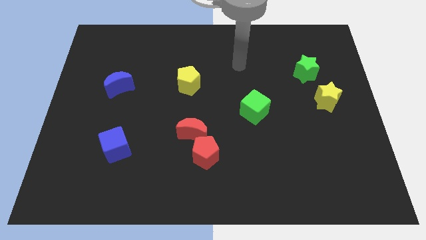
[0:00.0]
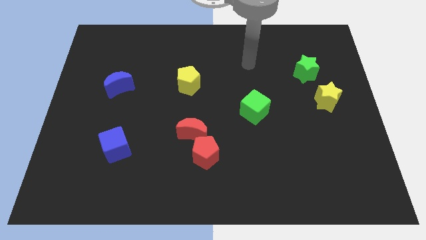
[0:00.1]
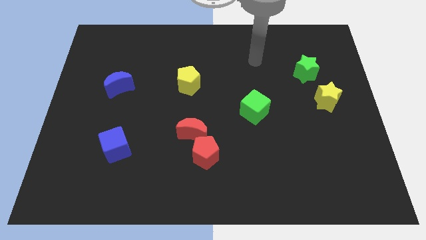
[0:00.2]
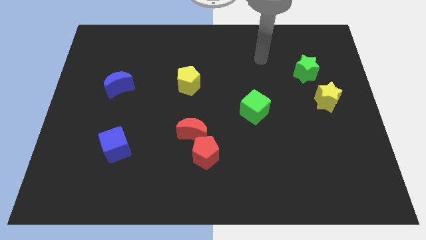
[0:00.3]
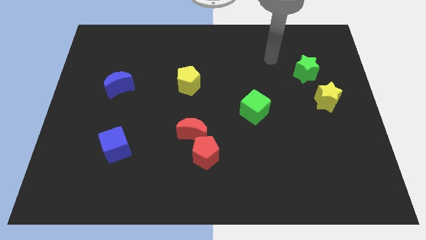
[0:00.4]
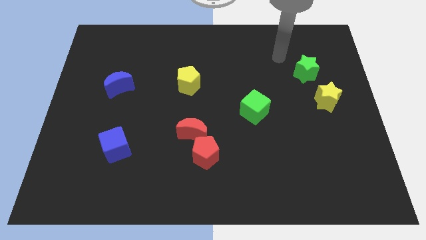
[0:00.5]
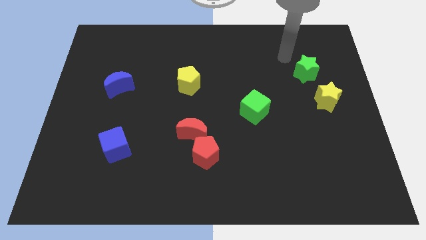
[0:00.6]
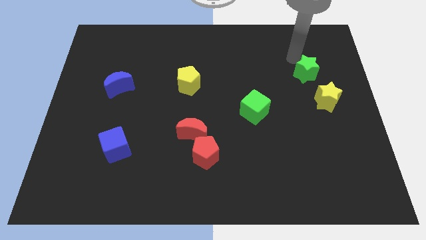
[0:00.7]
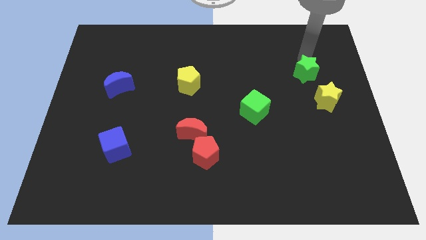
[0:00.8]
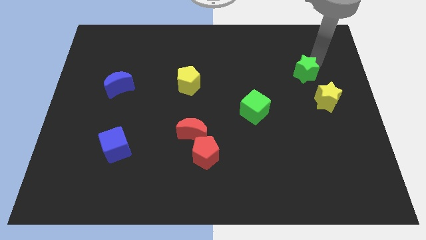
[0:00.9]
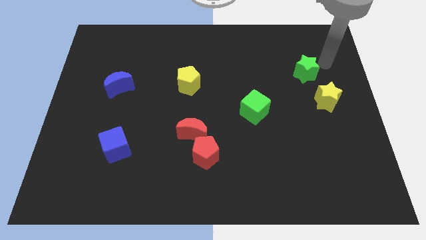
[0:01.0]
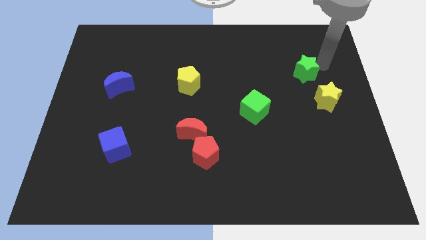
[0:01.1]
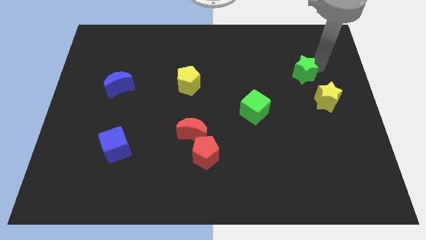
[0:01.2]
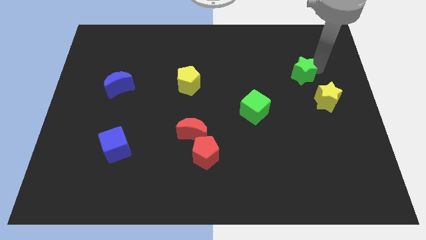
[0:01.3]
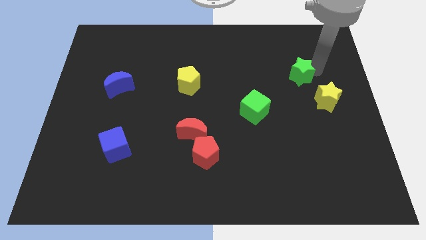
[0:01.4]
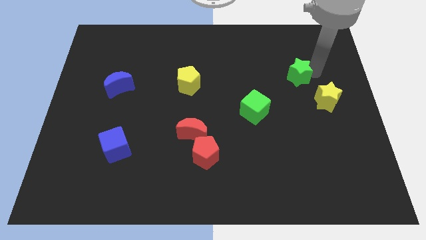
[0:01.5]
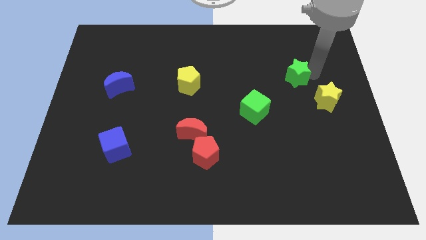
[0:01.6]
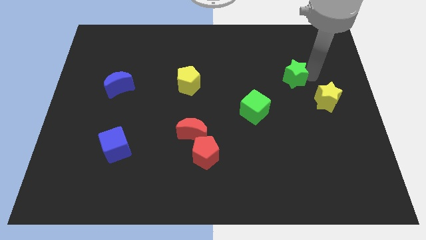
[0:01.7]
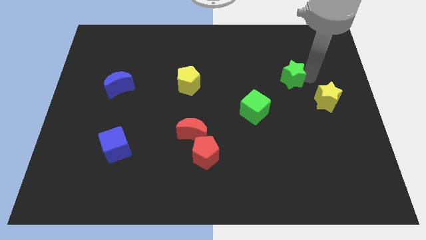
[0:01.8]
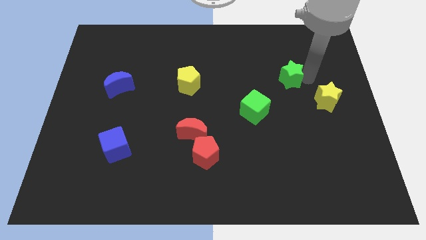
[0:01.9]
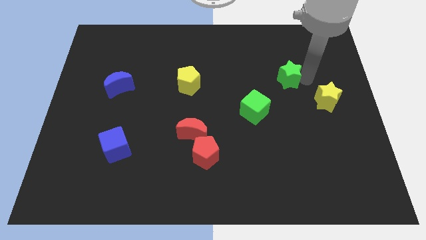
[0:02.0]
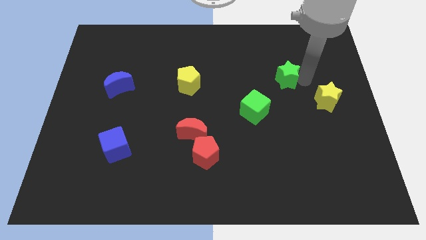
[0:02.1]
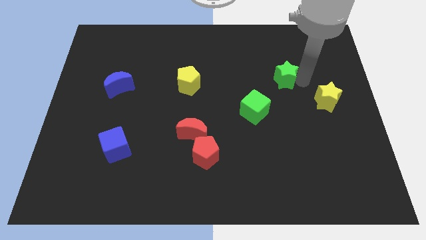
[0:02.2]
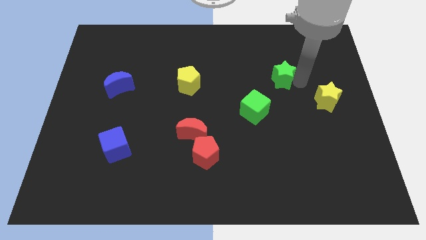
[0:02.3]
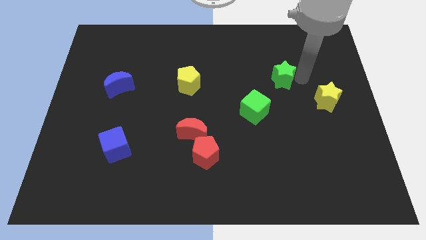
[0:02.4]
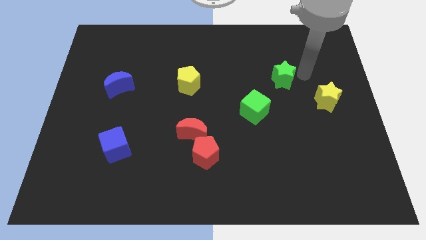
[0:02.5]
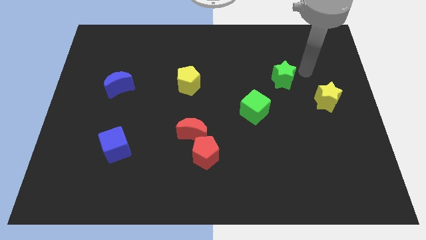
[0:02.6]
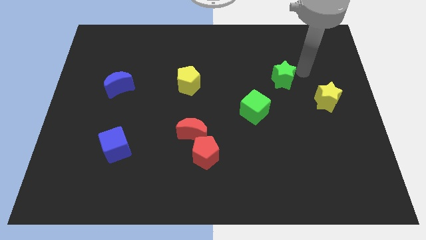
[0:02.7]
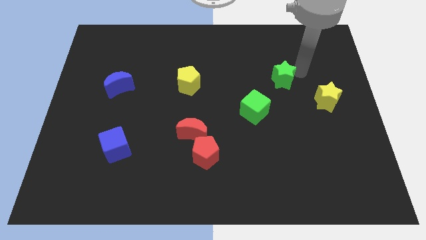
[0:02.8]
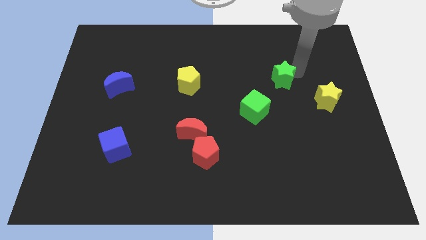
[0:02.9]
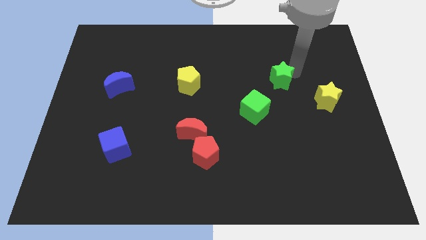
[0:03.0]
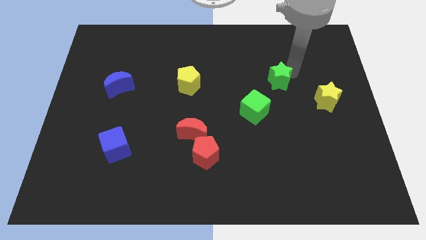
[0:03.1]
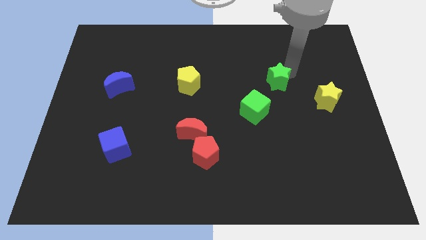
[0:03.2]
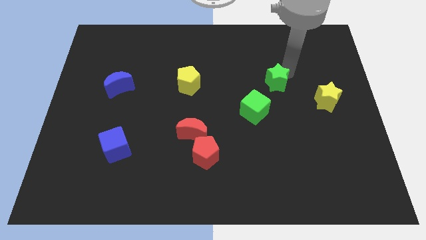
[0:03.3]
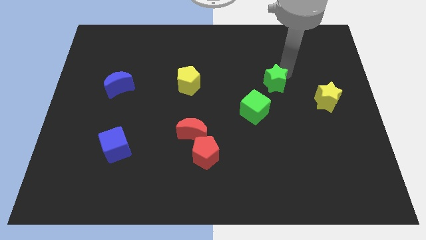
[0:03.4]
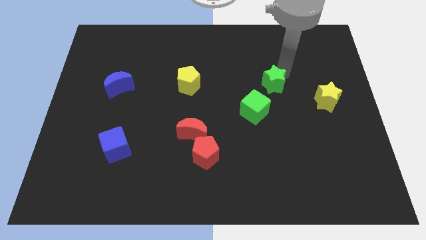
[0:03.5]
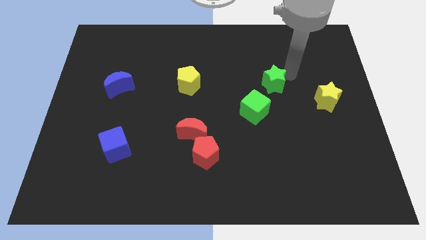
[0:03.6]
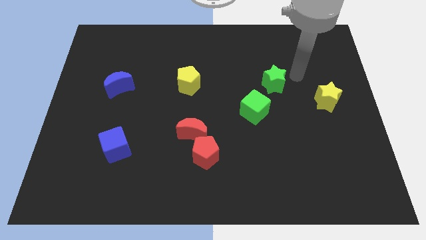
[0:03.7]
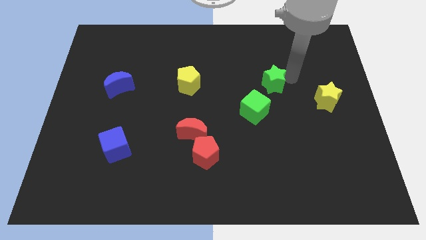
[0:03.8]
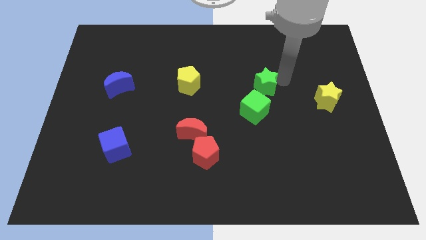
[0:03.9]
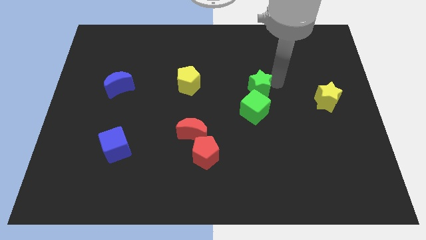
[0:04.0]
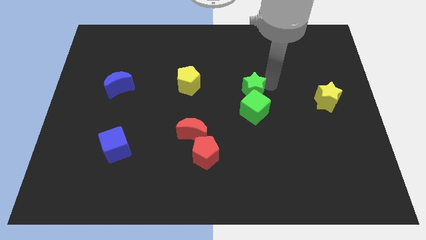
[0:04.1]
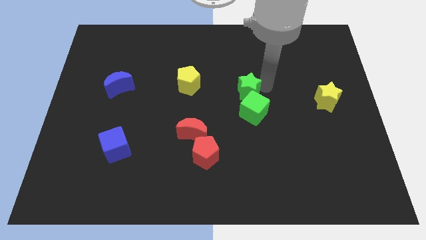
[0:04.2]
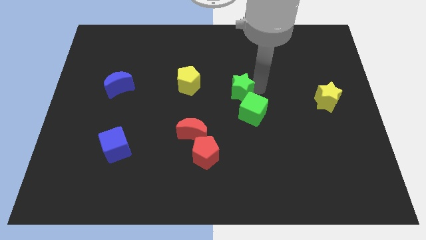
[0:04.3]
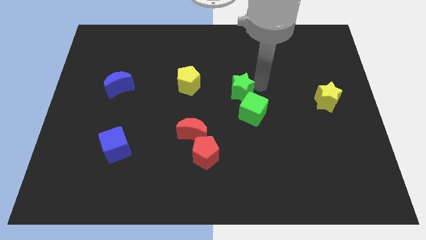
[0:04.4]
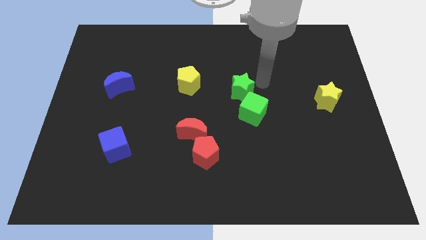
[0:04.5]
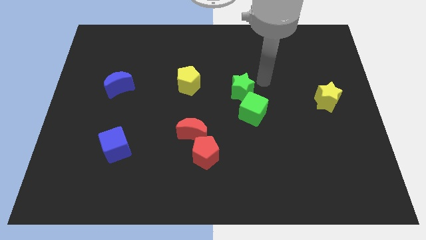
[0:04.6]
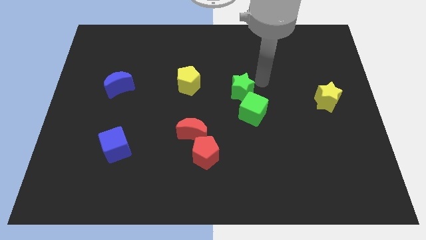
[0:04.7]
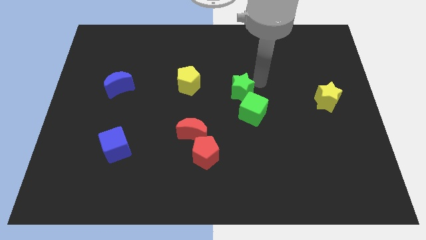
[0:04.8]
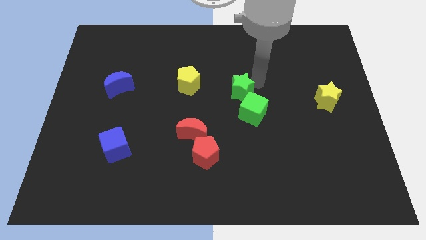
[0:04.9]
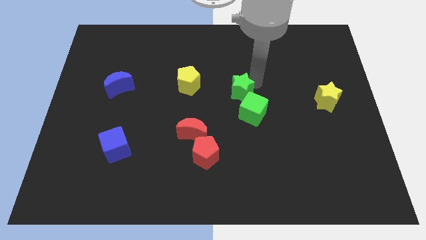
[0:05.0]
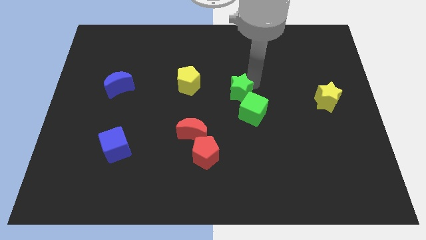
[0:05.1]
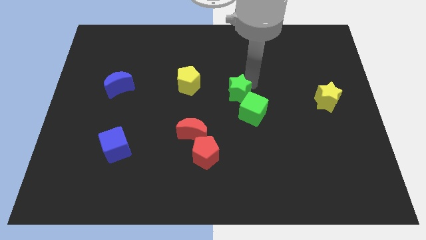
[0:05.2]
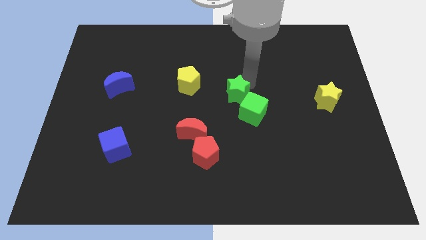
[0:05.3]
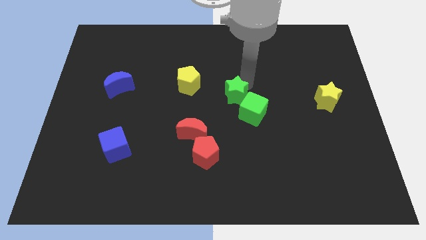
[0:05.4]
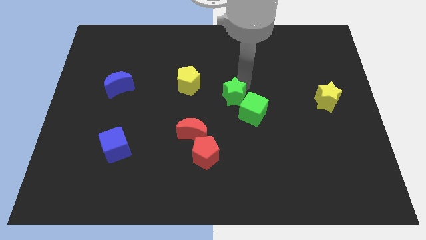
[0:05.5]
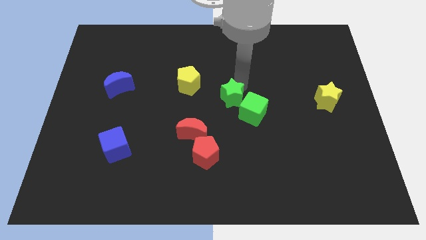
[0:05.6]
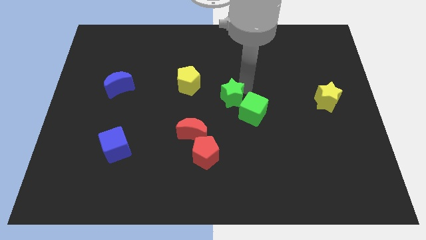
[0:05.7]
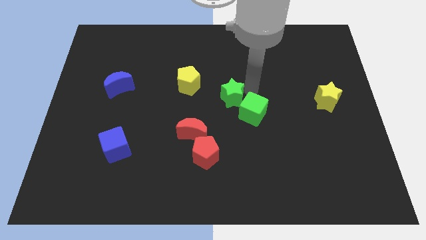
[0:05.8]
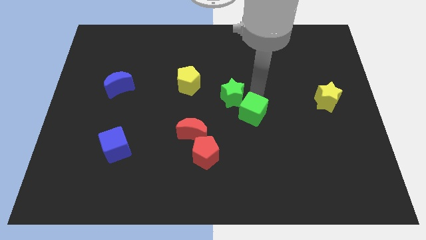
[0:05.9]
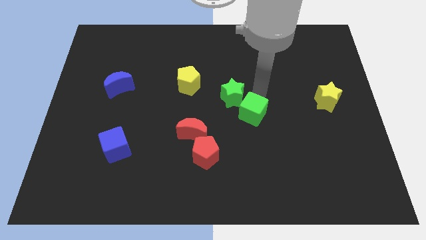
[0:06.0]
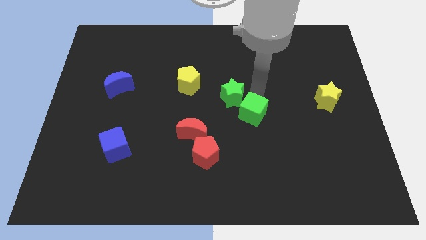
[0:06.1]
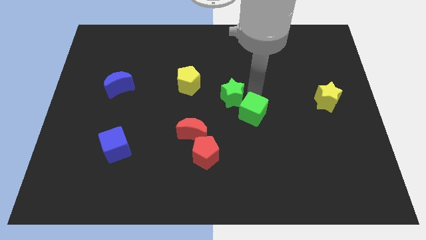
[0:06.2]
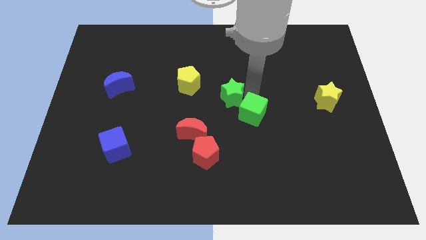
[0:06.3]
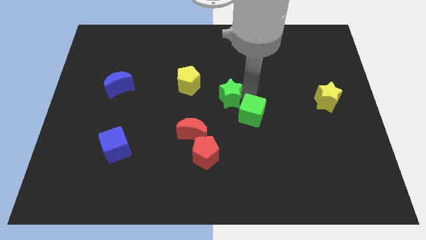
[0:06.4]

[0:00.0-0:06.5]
put the green star to the bottom right side of the yellow pentagon

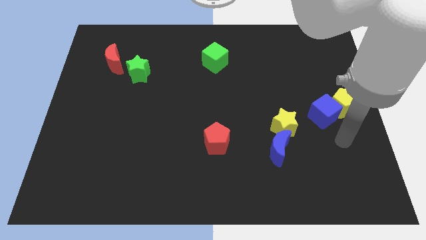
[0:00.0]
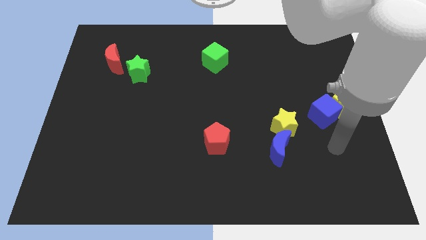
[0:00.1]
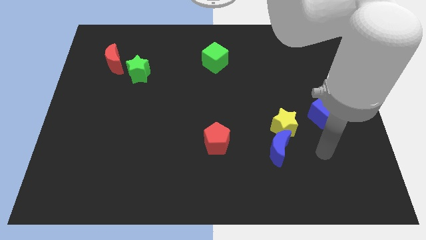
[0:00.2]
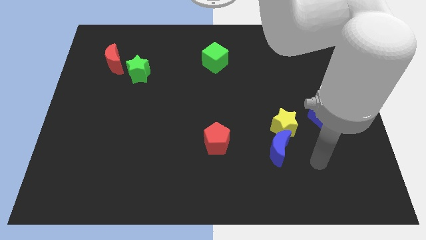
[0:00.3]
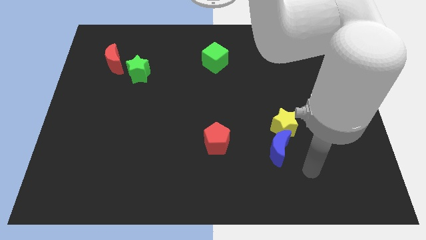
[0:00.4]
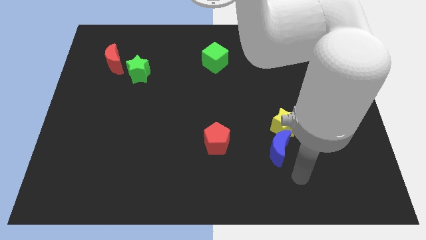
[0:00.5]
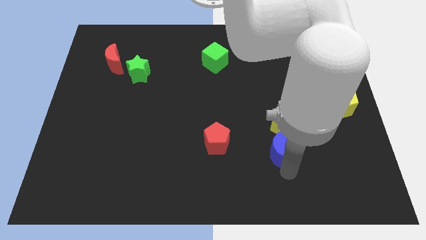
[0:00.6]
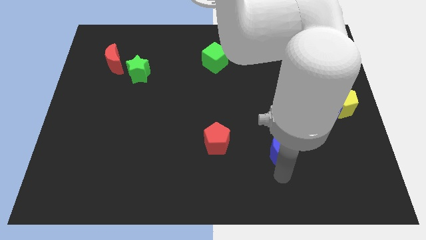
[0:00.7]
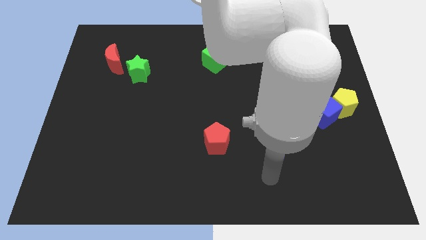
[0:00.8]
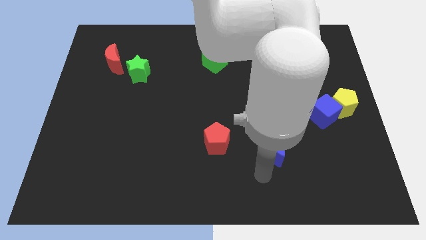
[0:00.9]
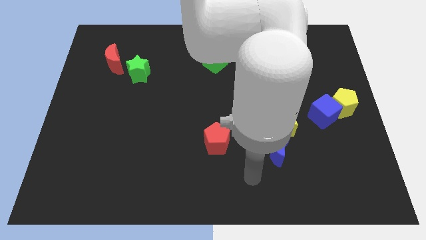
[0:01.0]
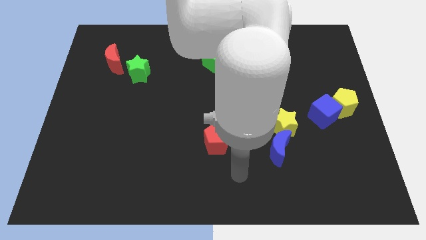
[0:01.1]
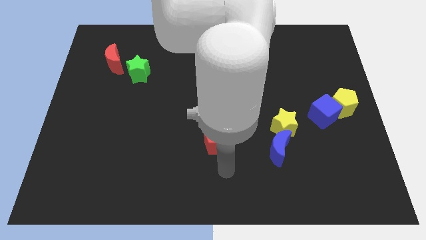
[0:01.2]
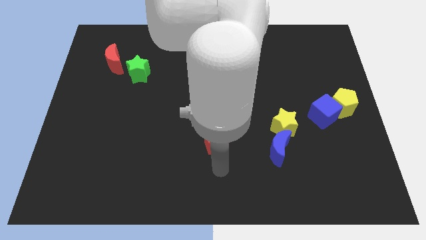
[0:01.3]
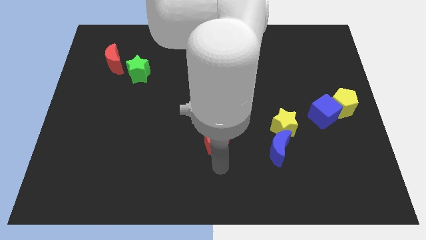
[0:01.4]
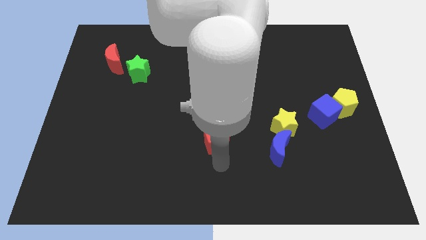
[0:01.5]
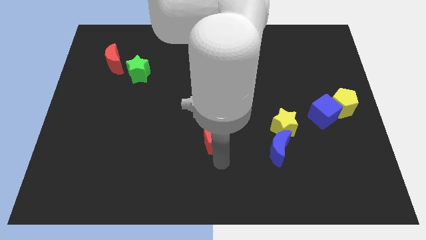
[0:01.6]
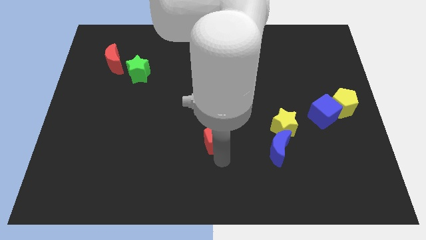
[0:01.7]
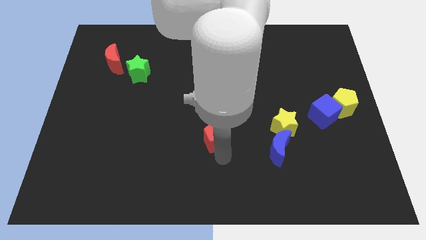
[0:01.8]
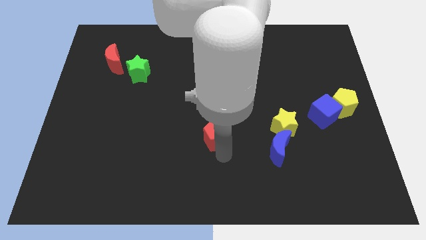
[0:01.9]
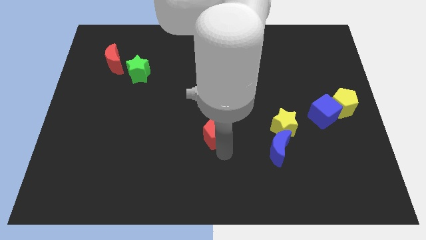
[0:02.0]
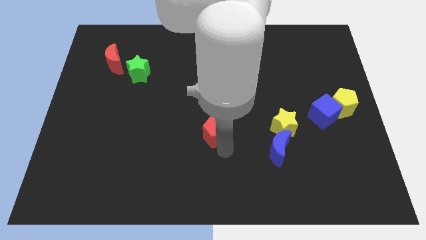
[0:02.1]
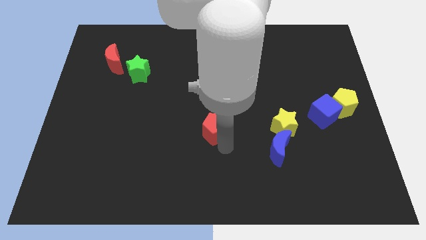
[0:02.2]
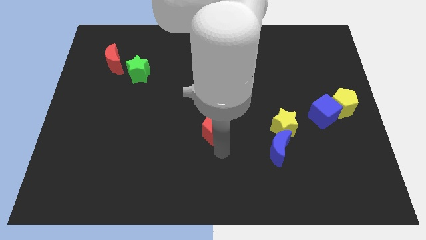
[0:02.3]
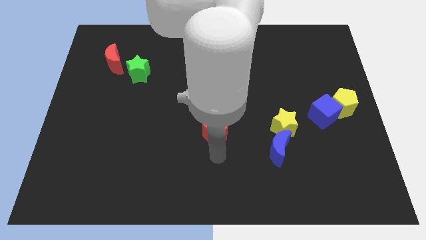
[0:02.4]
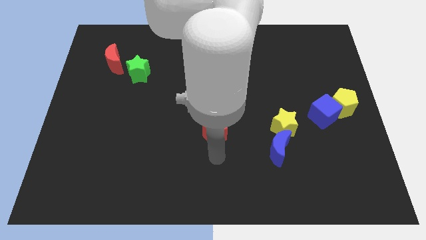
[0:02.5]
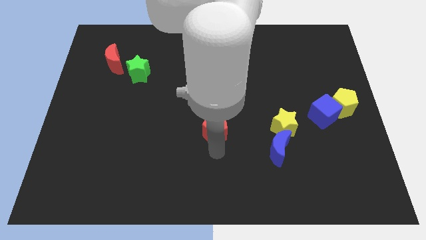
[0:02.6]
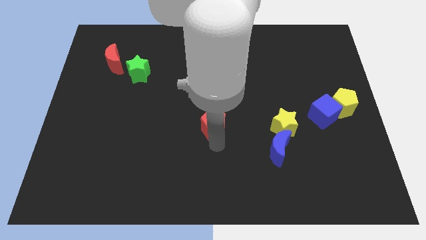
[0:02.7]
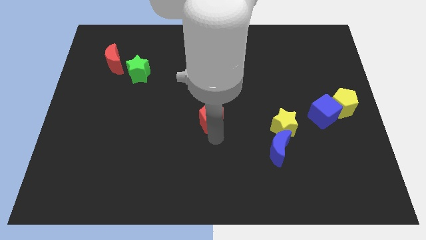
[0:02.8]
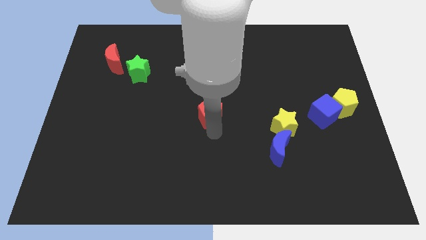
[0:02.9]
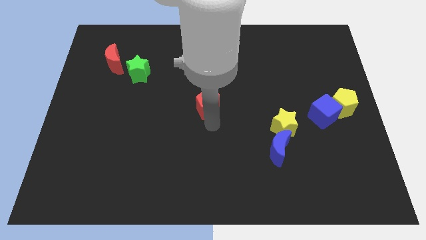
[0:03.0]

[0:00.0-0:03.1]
move the red pentagon below the green cube
